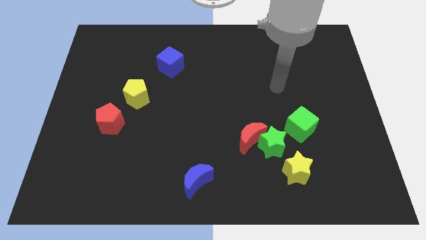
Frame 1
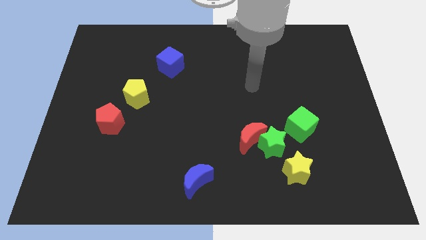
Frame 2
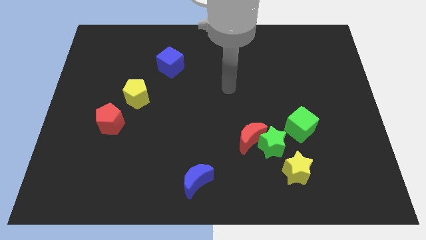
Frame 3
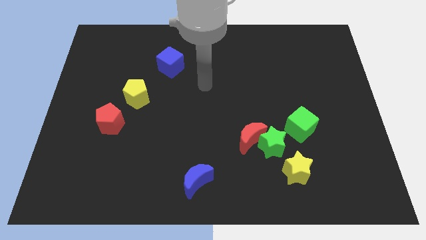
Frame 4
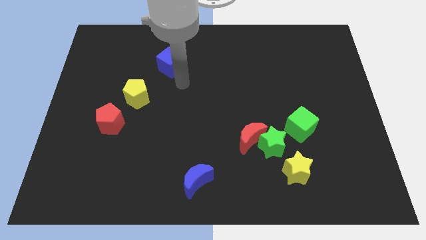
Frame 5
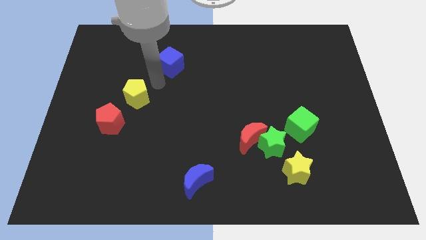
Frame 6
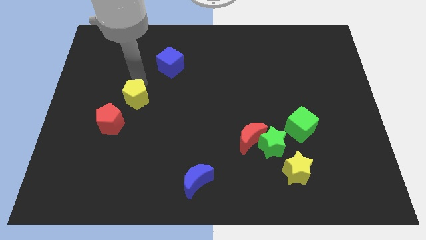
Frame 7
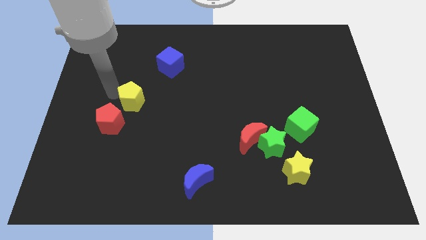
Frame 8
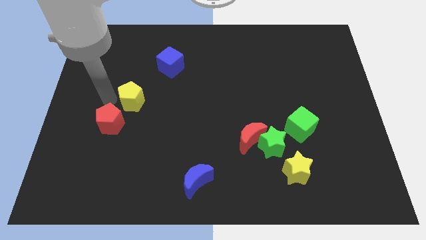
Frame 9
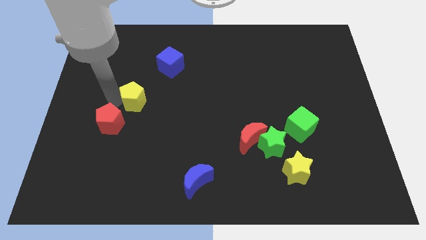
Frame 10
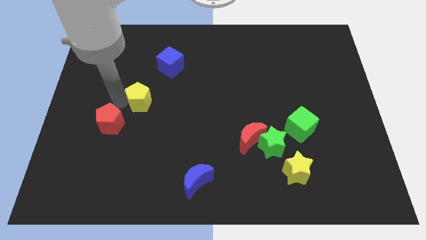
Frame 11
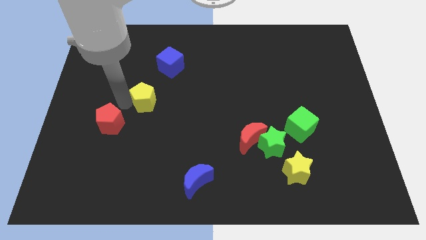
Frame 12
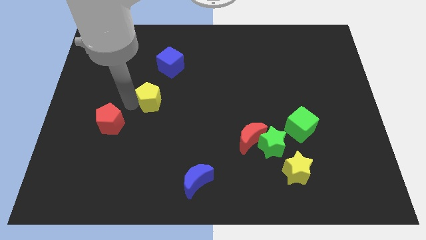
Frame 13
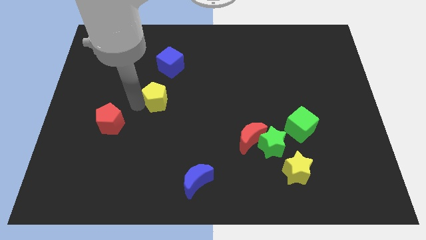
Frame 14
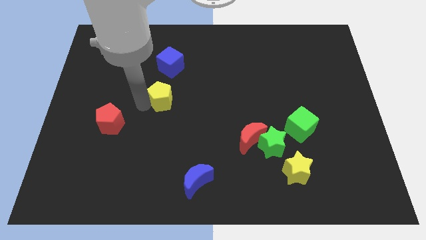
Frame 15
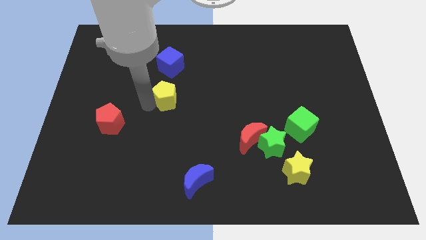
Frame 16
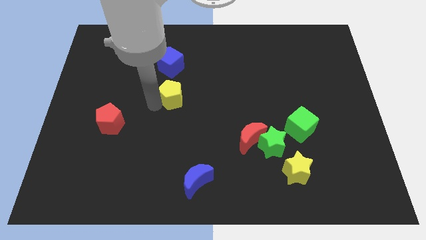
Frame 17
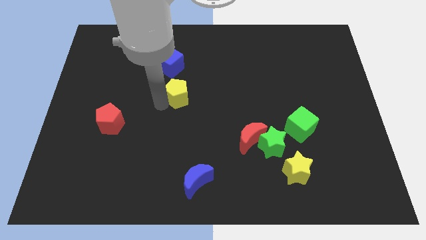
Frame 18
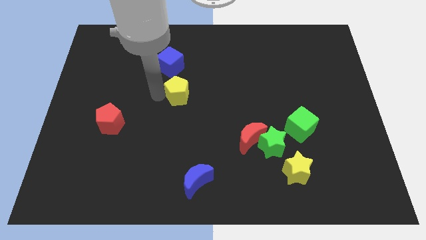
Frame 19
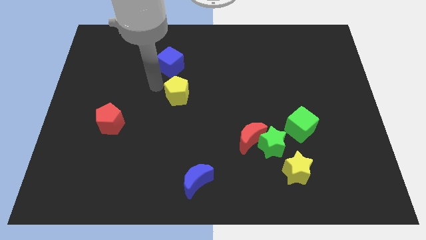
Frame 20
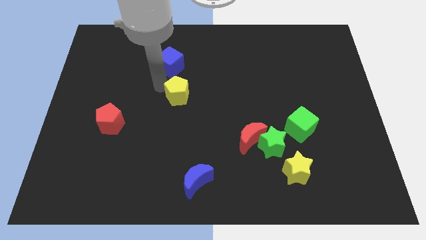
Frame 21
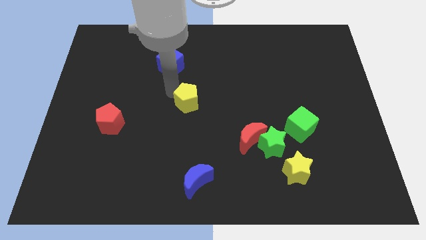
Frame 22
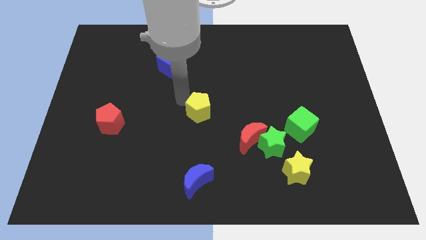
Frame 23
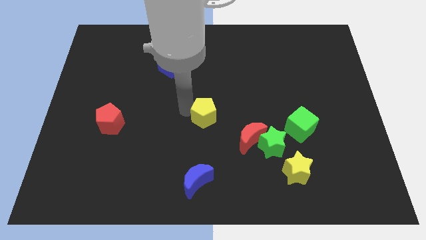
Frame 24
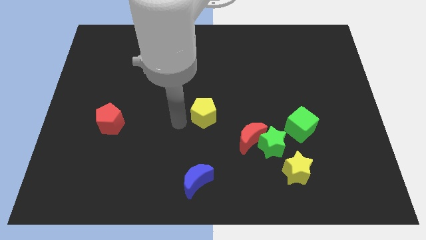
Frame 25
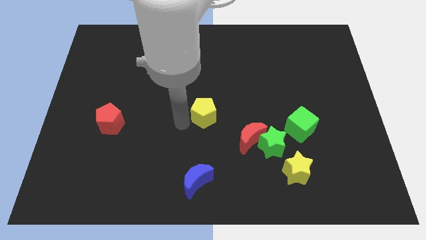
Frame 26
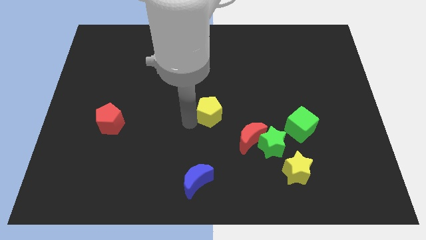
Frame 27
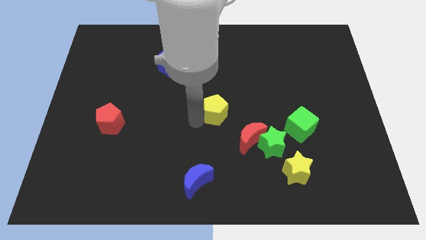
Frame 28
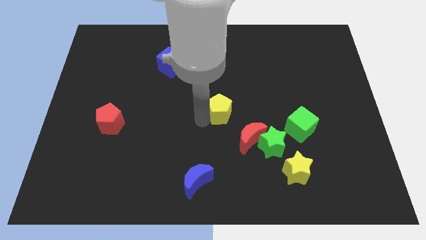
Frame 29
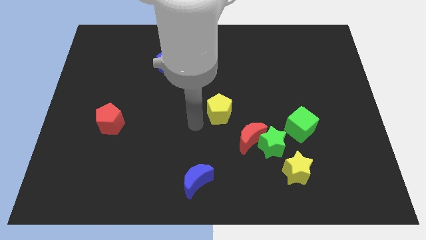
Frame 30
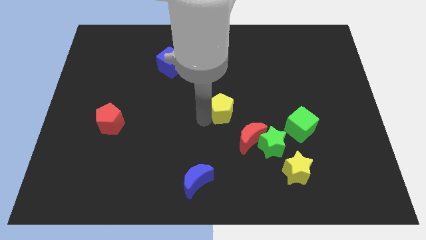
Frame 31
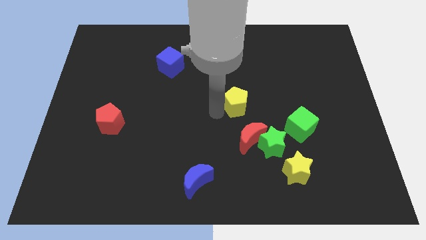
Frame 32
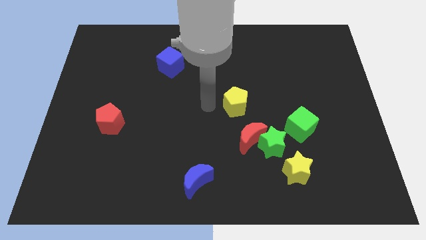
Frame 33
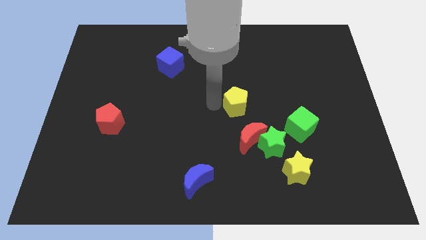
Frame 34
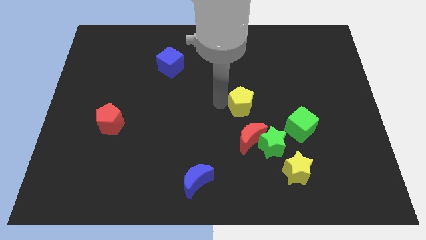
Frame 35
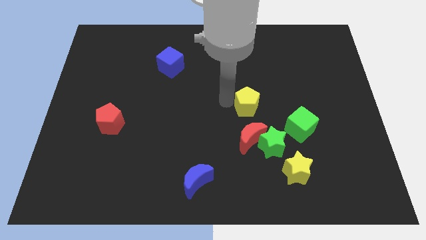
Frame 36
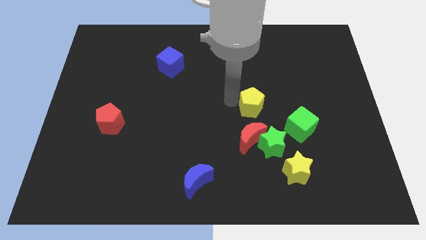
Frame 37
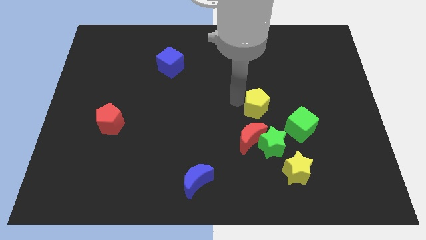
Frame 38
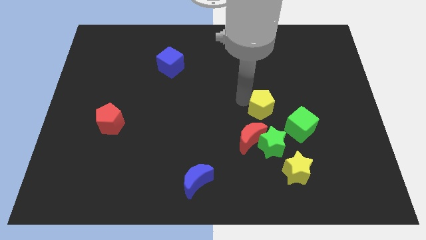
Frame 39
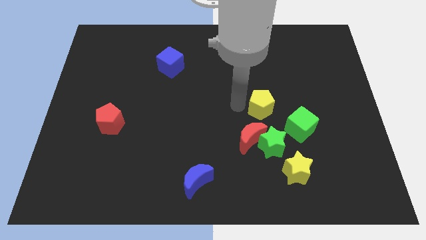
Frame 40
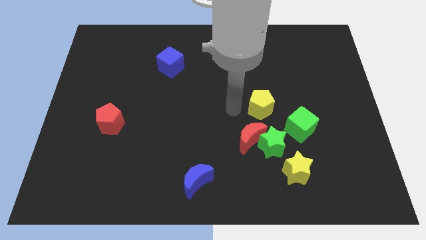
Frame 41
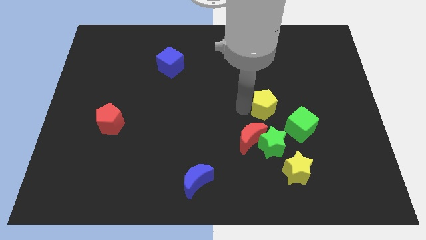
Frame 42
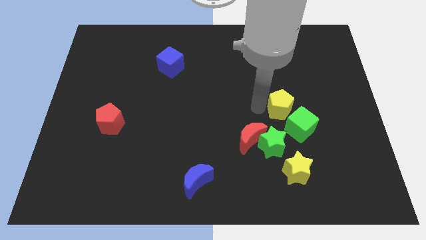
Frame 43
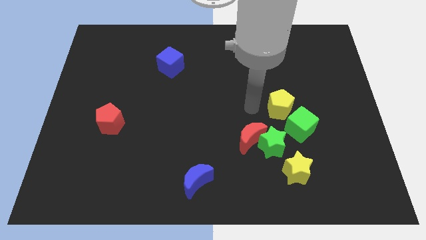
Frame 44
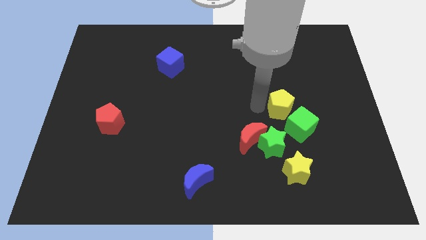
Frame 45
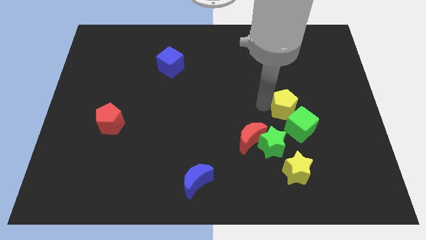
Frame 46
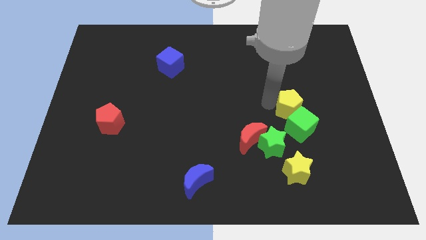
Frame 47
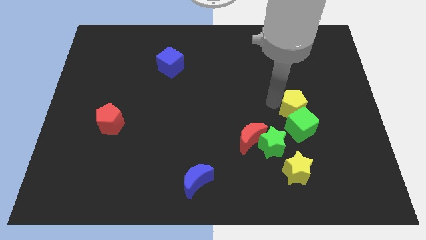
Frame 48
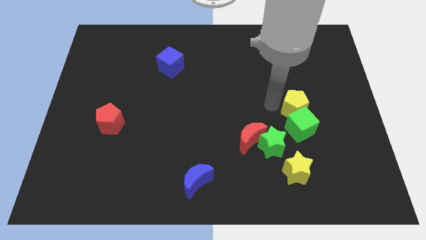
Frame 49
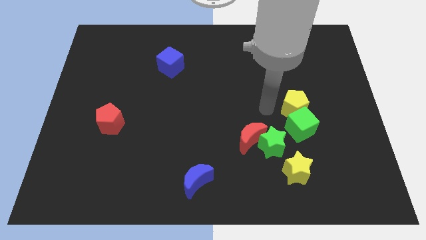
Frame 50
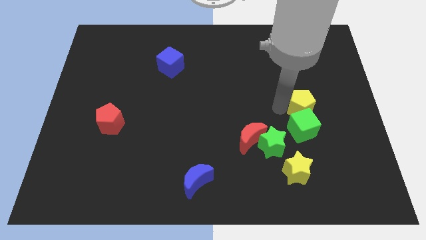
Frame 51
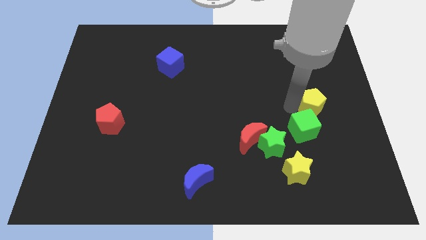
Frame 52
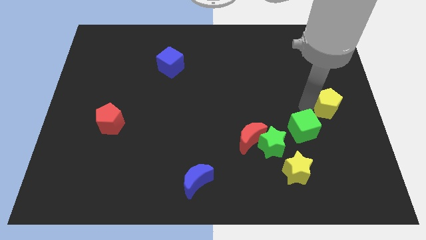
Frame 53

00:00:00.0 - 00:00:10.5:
push the yellow pentagon to the right side of the board

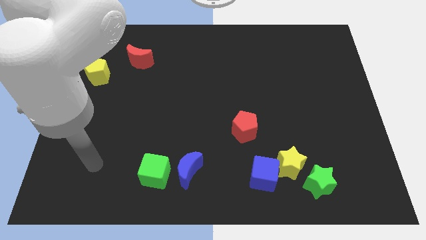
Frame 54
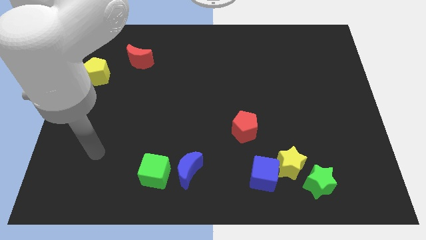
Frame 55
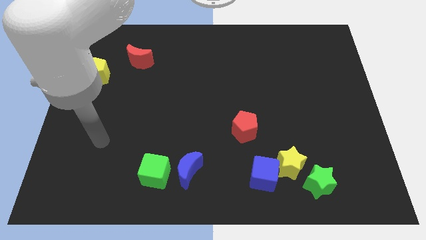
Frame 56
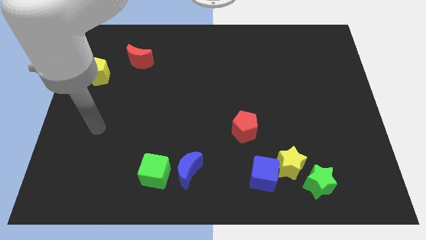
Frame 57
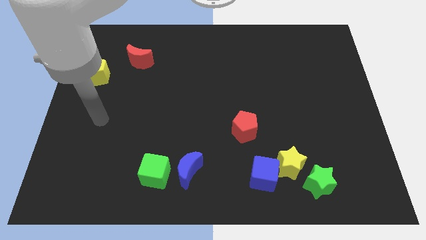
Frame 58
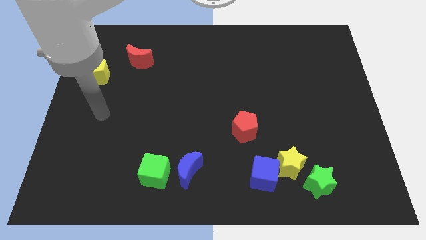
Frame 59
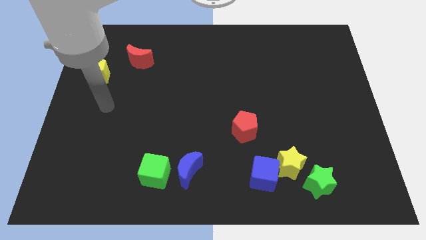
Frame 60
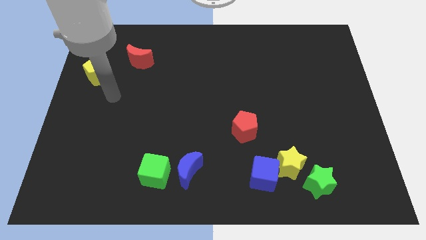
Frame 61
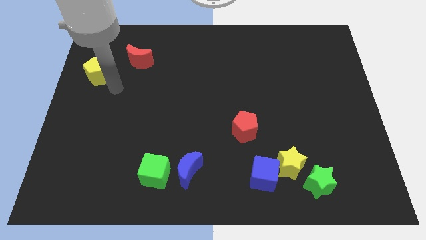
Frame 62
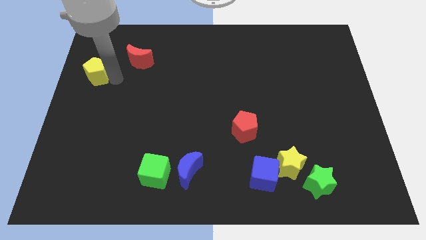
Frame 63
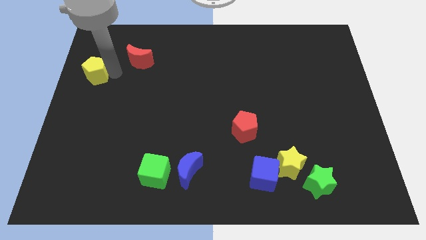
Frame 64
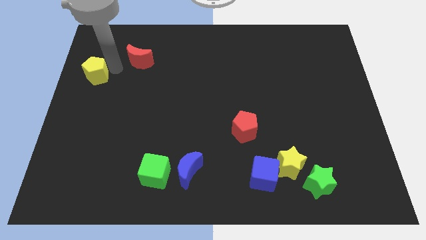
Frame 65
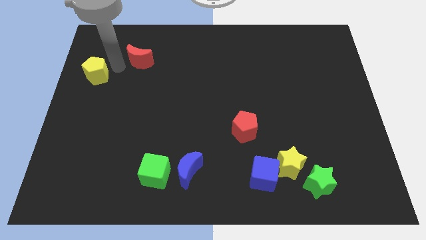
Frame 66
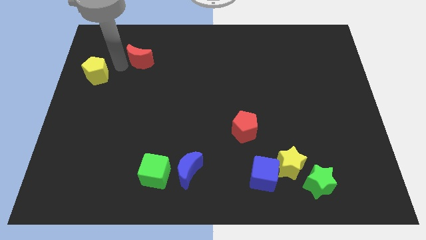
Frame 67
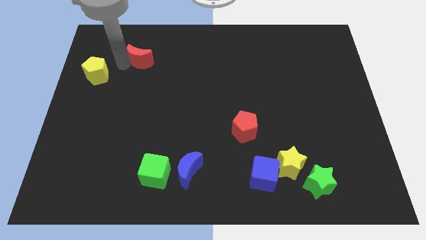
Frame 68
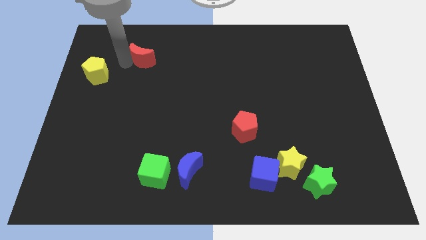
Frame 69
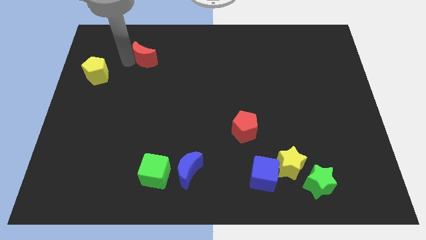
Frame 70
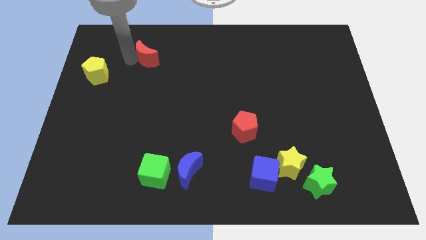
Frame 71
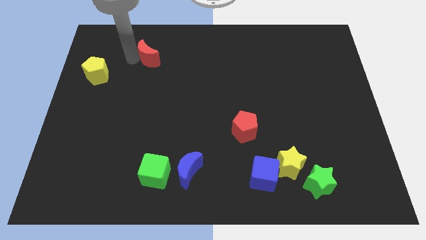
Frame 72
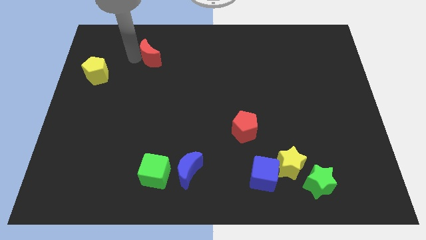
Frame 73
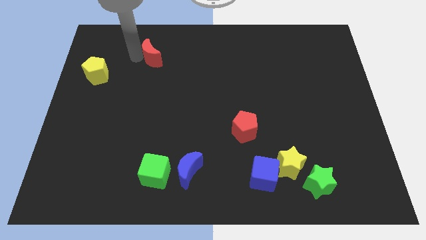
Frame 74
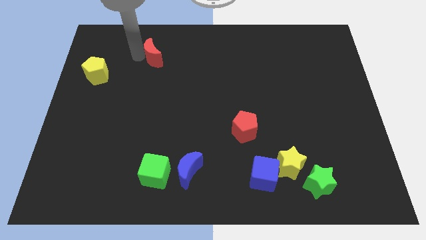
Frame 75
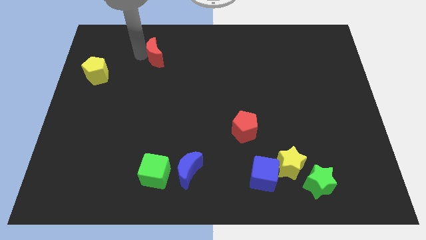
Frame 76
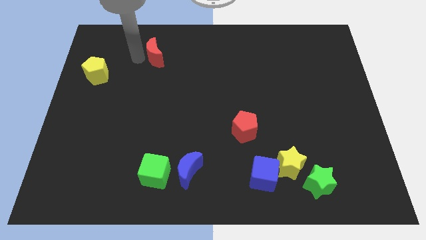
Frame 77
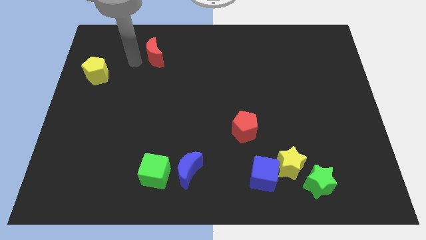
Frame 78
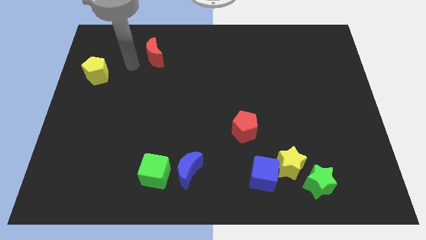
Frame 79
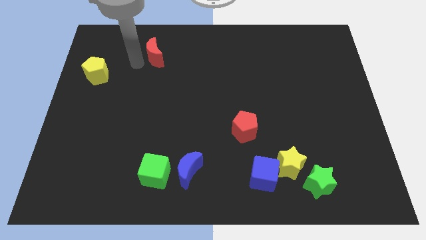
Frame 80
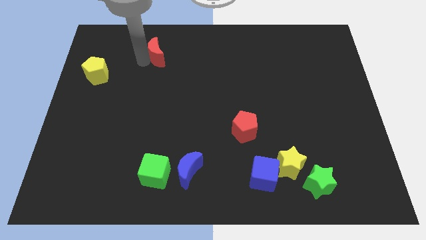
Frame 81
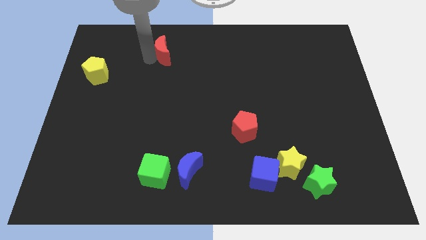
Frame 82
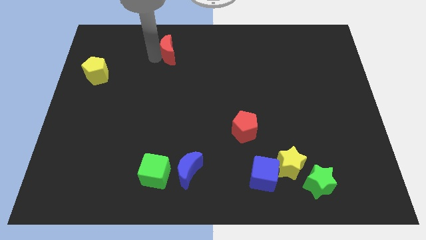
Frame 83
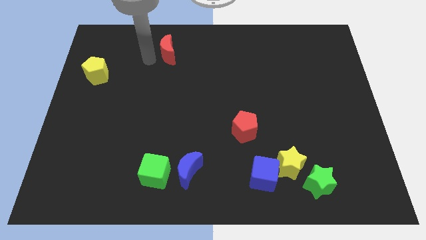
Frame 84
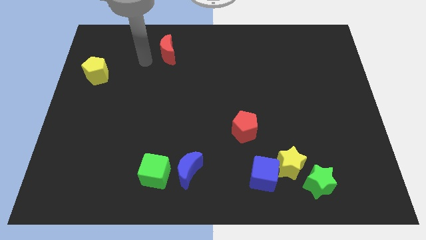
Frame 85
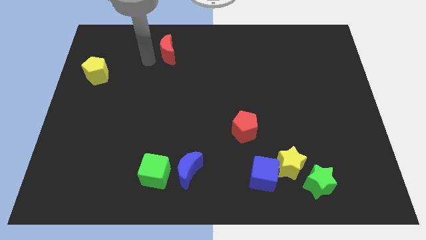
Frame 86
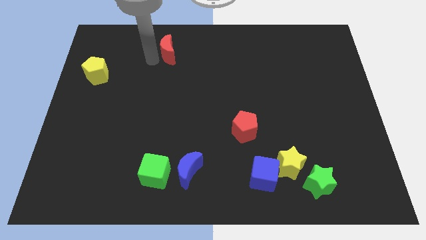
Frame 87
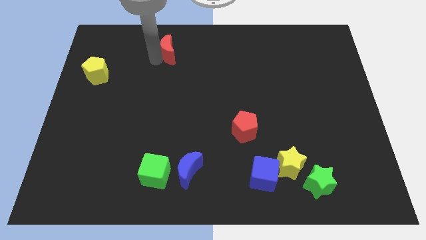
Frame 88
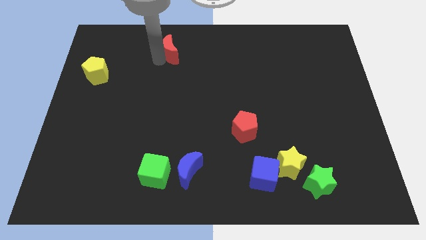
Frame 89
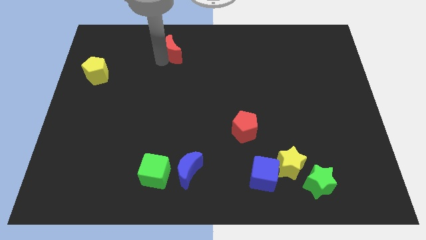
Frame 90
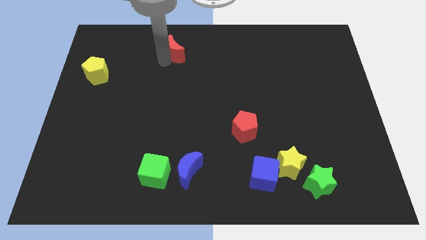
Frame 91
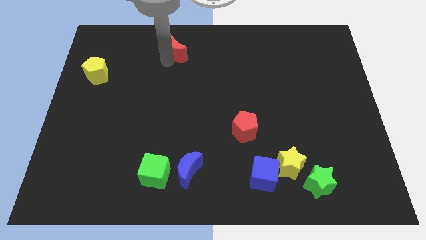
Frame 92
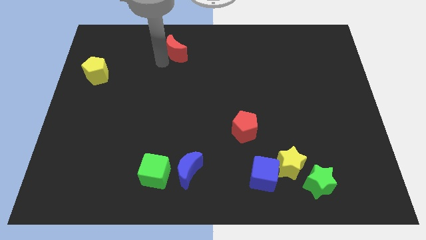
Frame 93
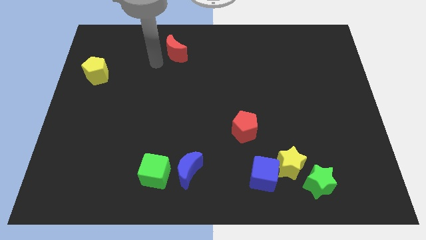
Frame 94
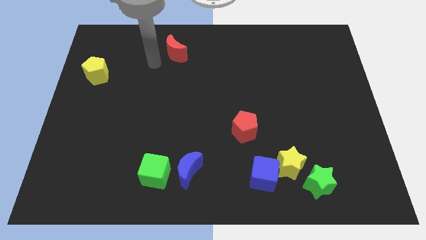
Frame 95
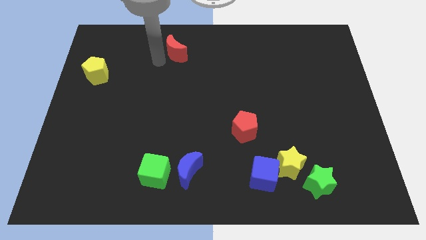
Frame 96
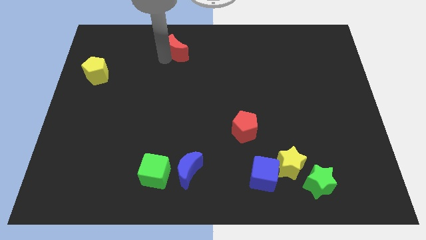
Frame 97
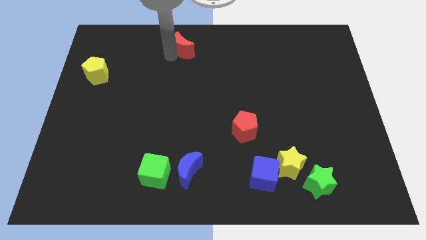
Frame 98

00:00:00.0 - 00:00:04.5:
push the red moon to the towards your base
